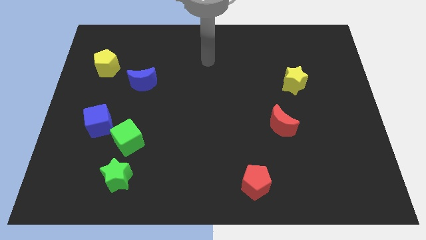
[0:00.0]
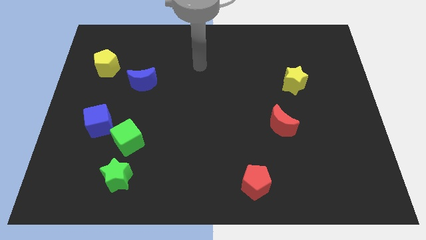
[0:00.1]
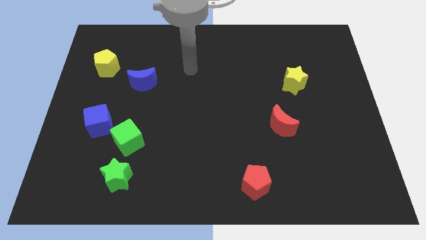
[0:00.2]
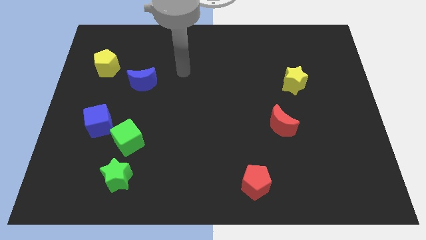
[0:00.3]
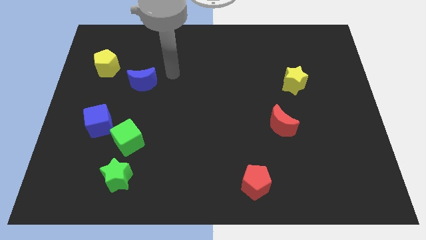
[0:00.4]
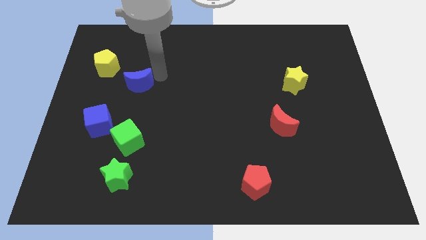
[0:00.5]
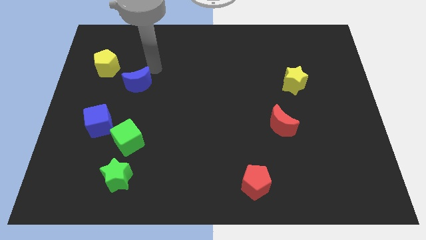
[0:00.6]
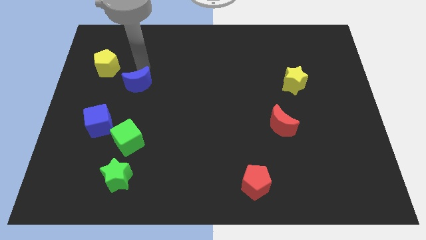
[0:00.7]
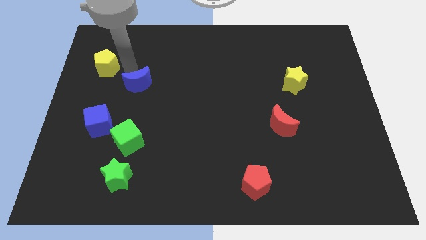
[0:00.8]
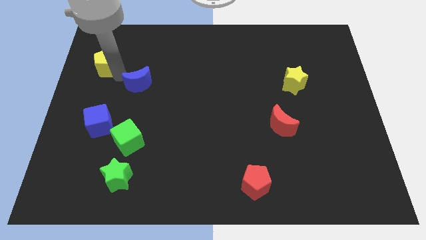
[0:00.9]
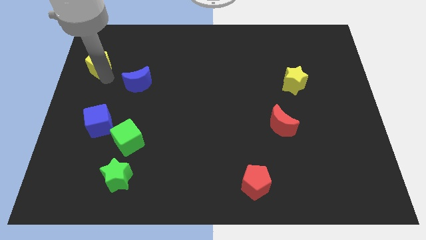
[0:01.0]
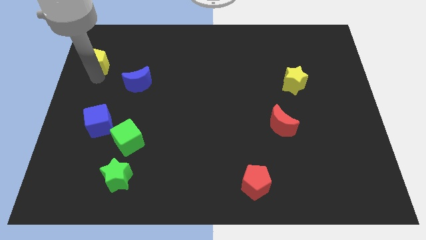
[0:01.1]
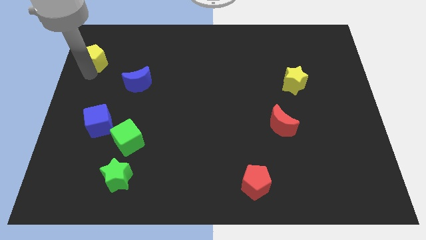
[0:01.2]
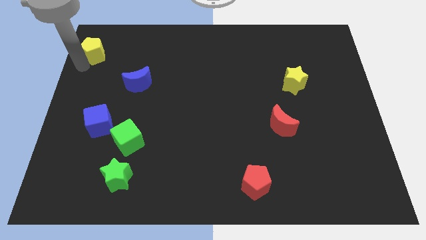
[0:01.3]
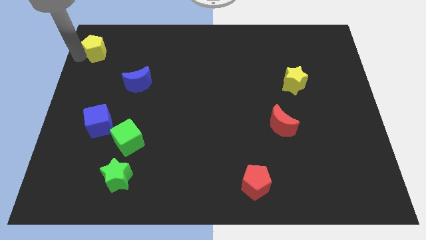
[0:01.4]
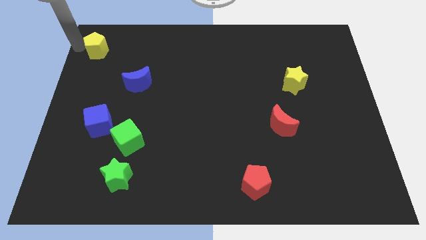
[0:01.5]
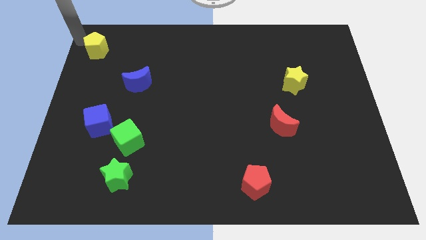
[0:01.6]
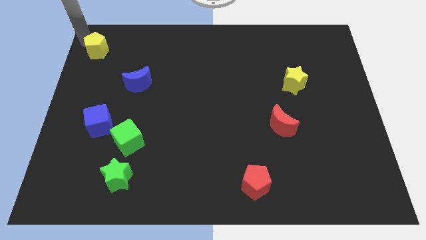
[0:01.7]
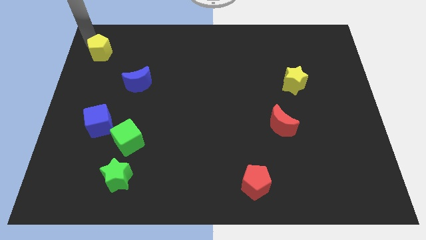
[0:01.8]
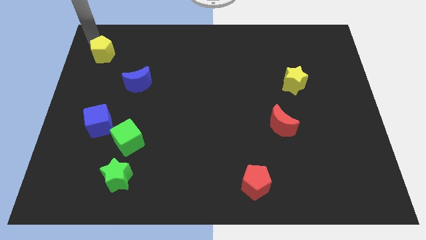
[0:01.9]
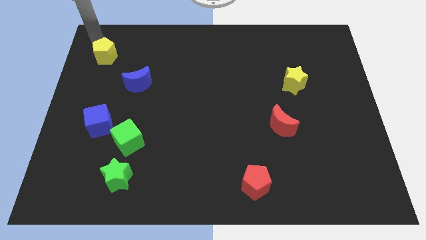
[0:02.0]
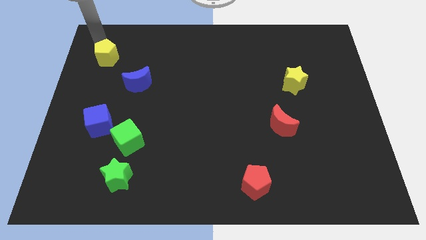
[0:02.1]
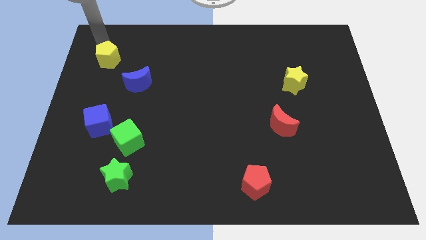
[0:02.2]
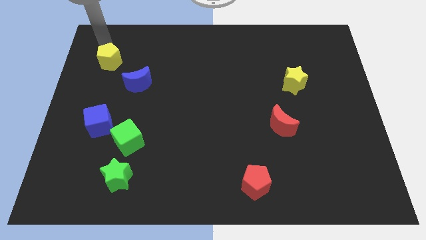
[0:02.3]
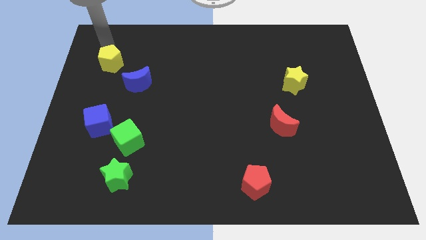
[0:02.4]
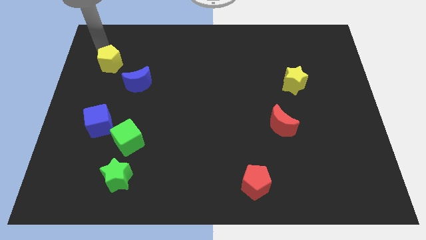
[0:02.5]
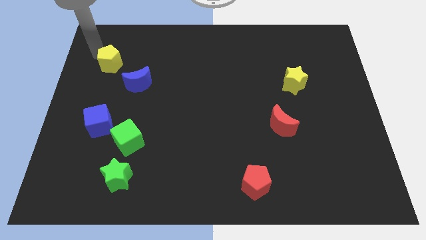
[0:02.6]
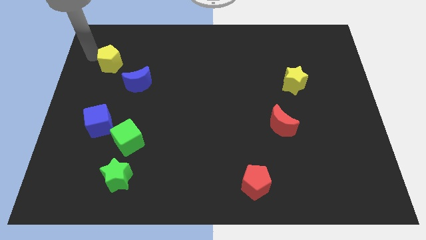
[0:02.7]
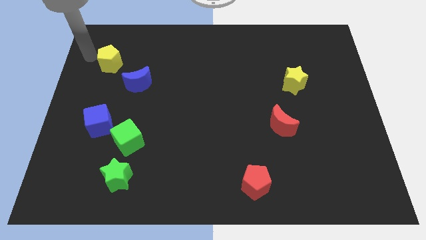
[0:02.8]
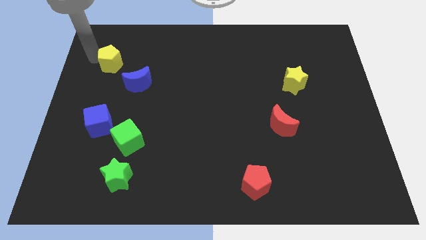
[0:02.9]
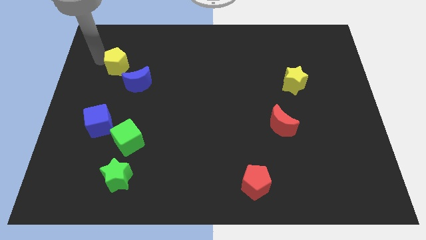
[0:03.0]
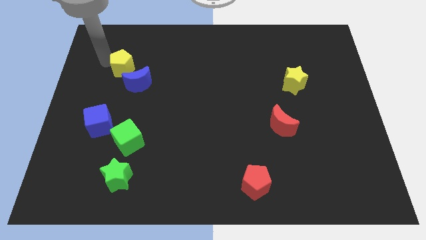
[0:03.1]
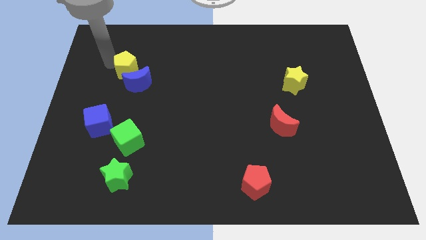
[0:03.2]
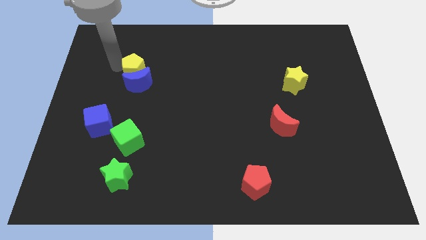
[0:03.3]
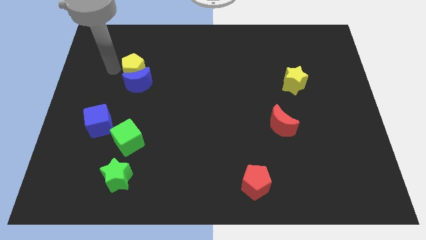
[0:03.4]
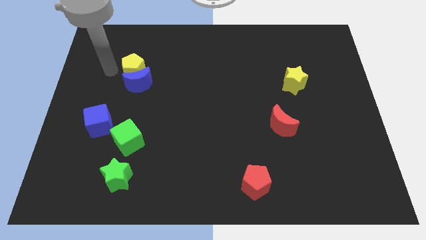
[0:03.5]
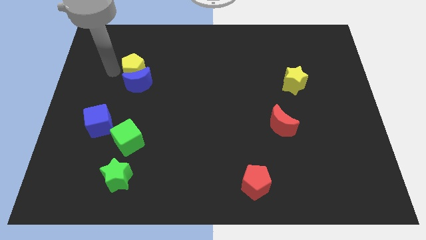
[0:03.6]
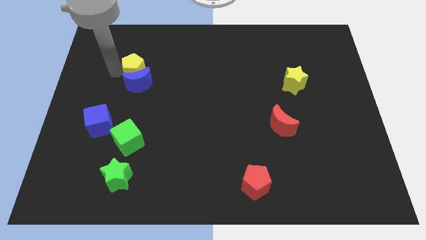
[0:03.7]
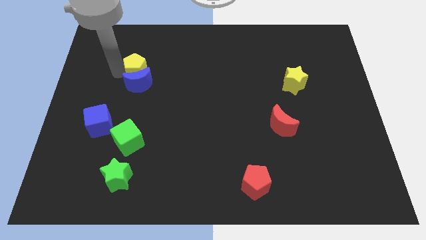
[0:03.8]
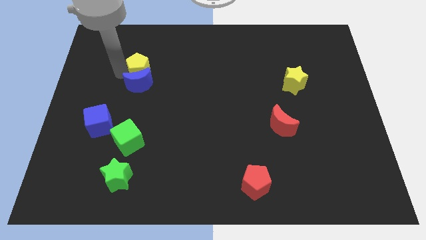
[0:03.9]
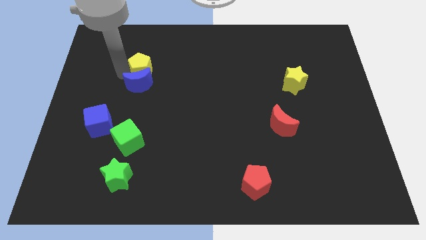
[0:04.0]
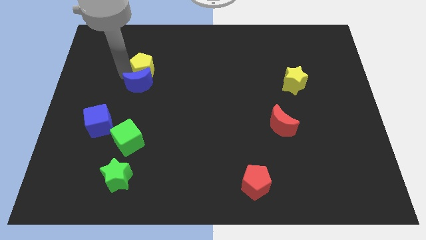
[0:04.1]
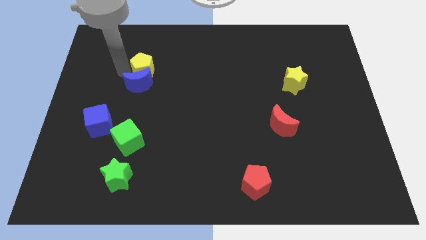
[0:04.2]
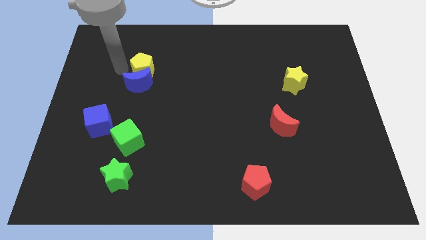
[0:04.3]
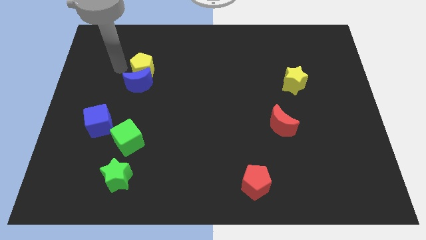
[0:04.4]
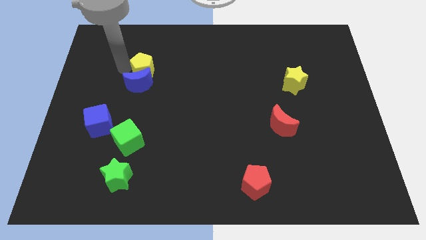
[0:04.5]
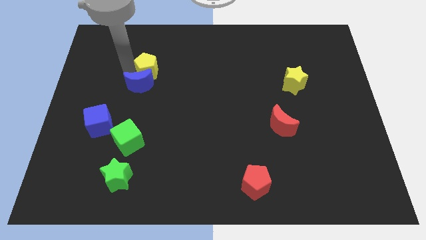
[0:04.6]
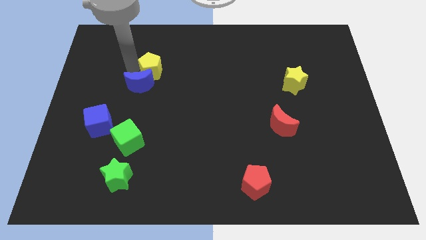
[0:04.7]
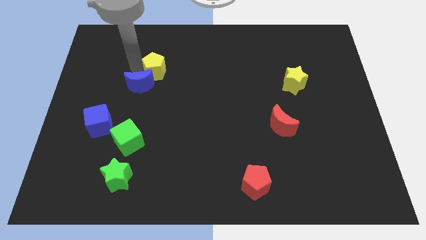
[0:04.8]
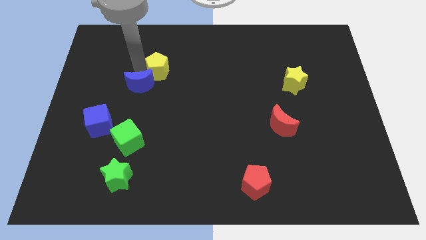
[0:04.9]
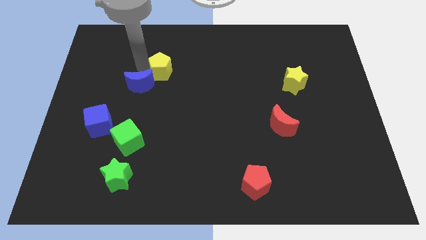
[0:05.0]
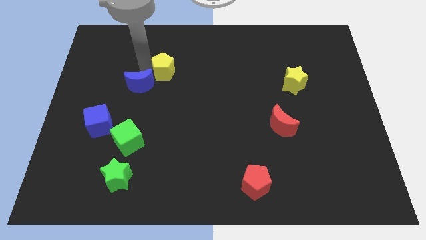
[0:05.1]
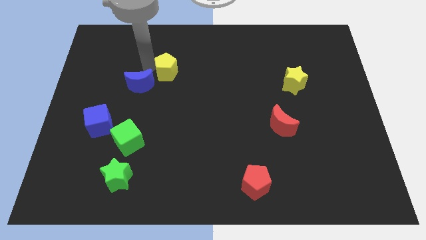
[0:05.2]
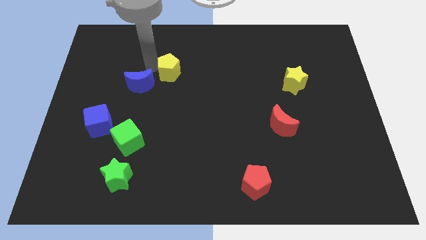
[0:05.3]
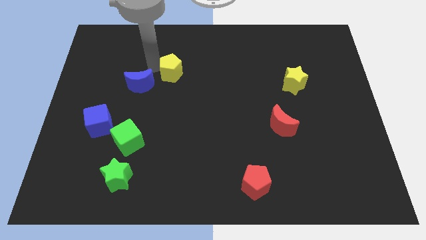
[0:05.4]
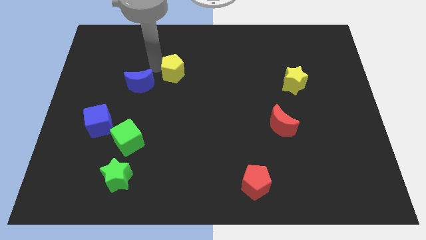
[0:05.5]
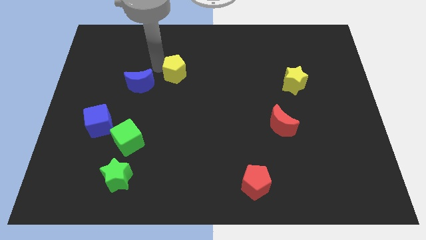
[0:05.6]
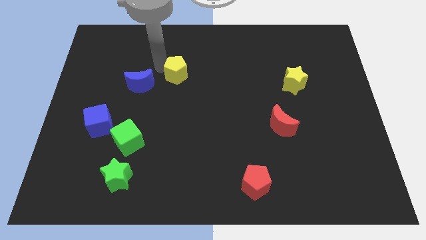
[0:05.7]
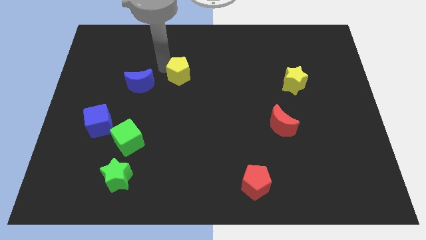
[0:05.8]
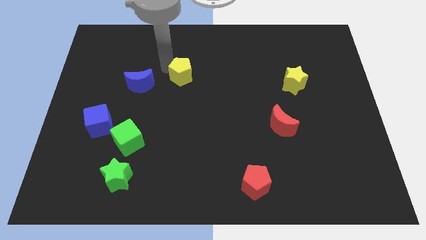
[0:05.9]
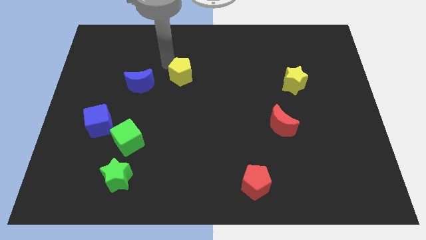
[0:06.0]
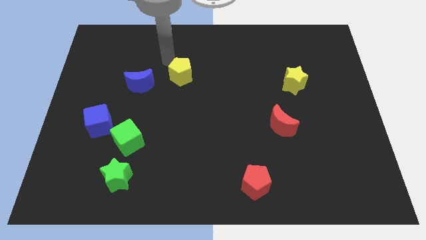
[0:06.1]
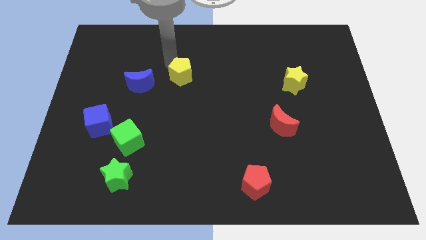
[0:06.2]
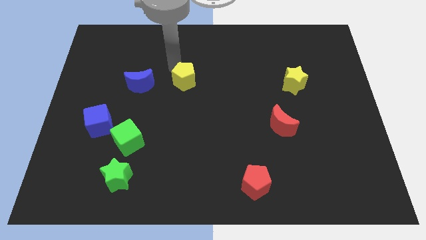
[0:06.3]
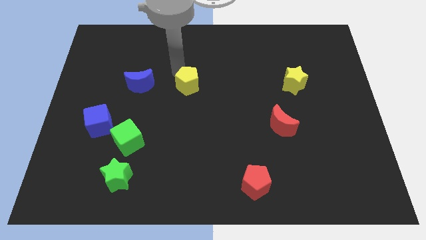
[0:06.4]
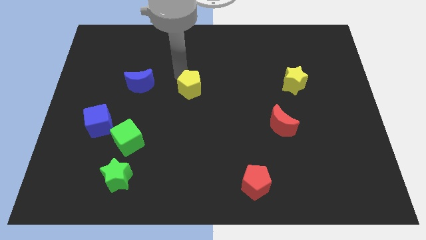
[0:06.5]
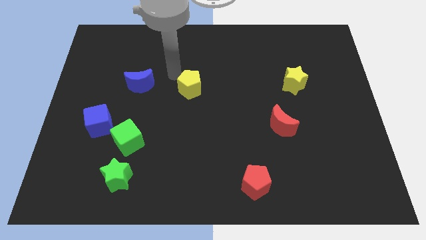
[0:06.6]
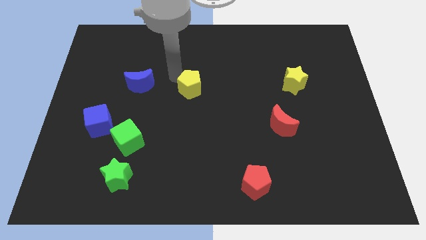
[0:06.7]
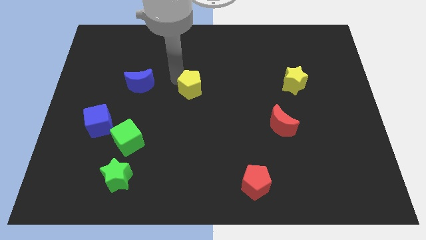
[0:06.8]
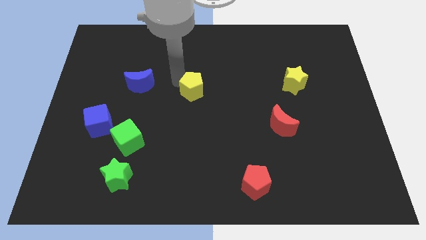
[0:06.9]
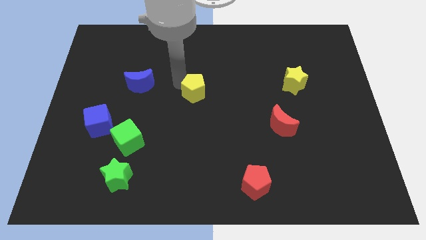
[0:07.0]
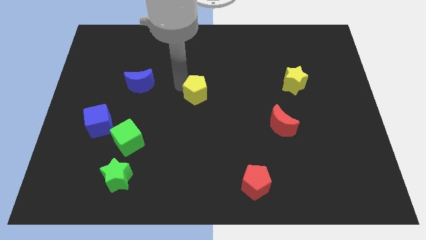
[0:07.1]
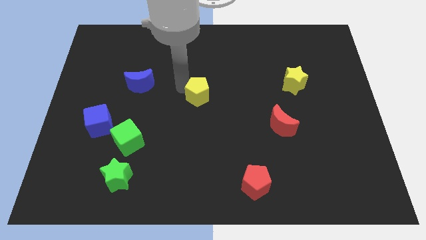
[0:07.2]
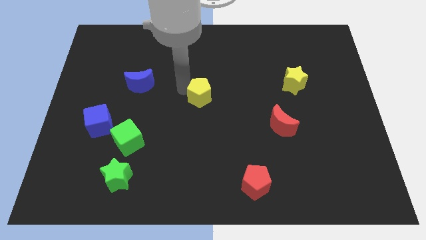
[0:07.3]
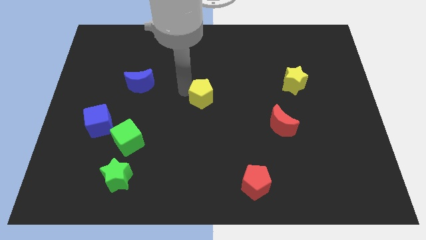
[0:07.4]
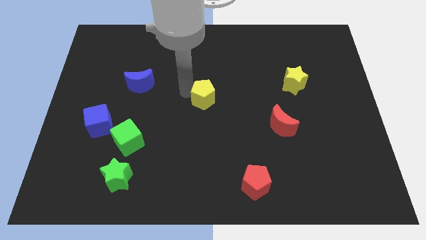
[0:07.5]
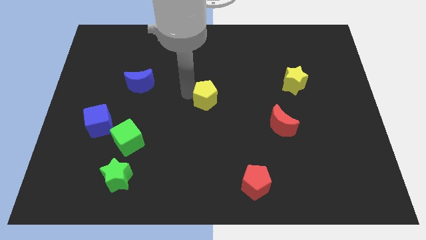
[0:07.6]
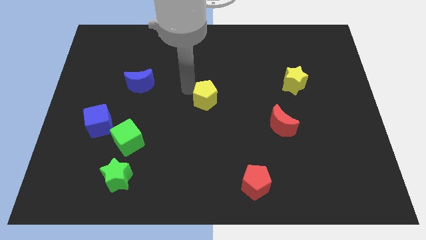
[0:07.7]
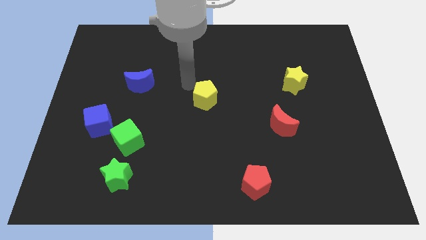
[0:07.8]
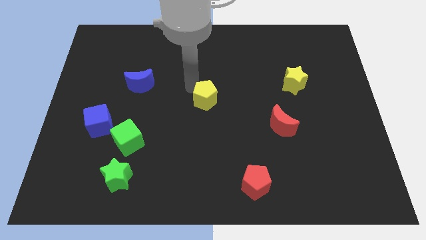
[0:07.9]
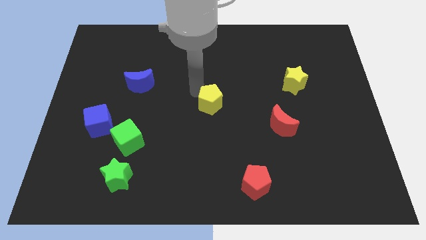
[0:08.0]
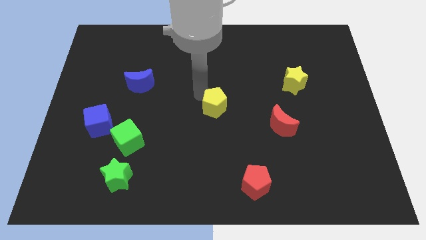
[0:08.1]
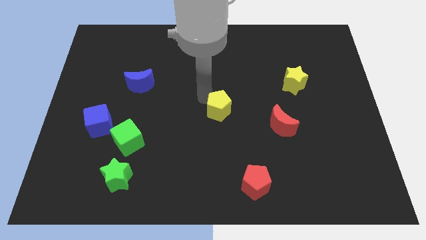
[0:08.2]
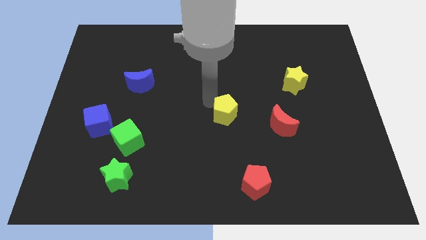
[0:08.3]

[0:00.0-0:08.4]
push the yellow pentagon left of the red moon
